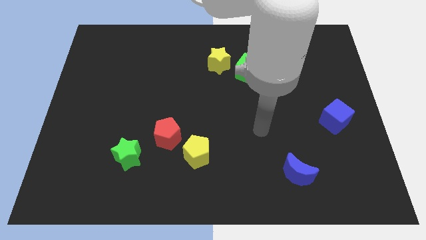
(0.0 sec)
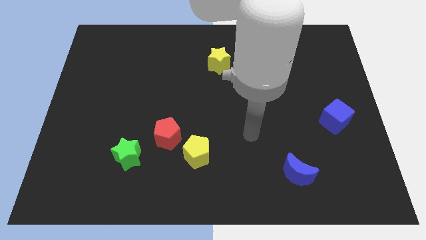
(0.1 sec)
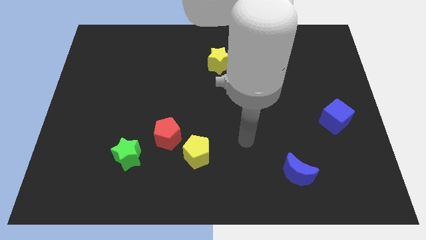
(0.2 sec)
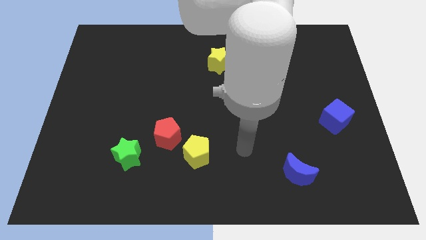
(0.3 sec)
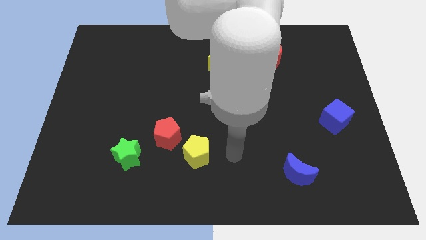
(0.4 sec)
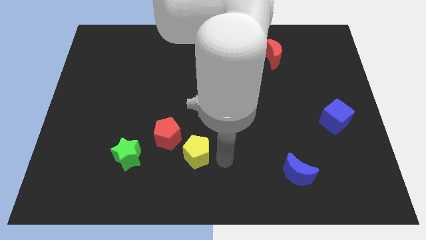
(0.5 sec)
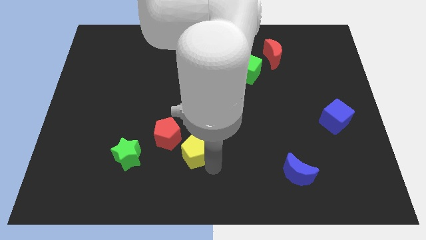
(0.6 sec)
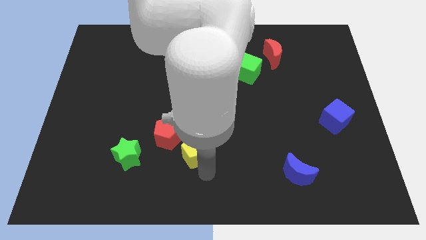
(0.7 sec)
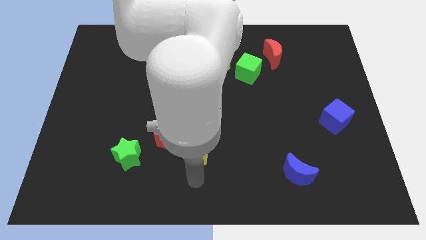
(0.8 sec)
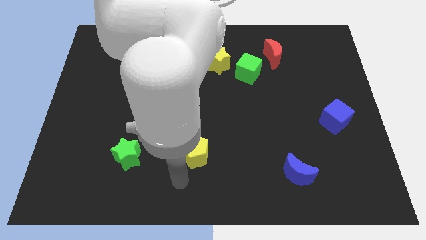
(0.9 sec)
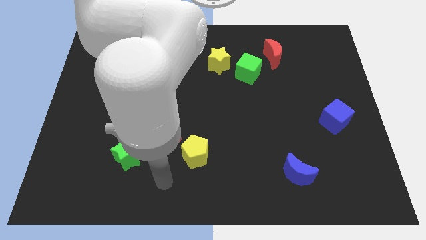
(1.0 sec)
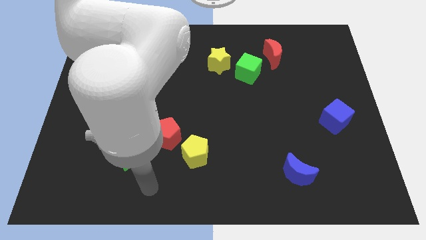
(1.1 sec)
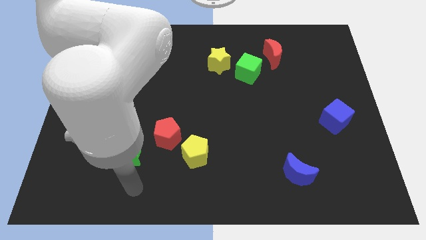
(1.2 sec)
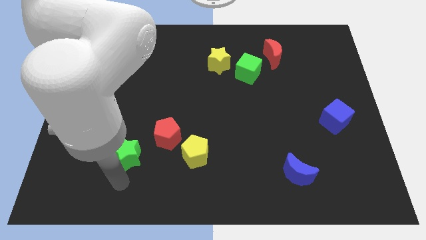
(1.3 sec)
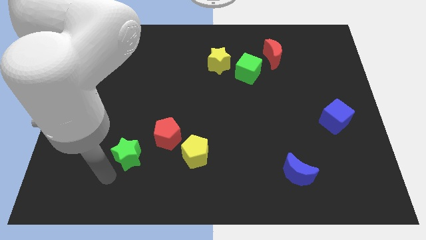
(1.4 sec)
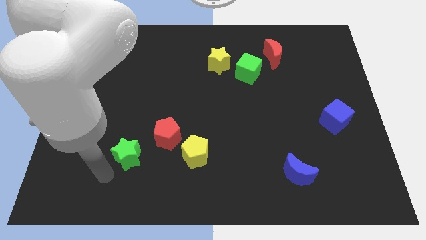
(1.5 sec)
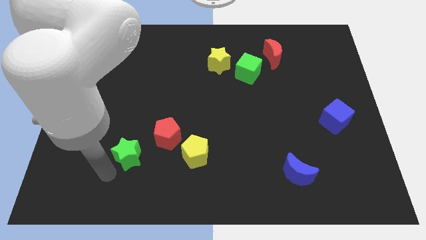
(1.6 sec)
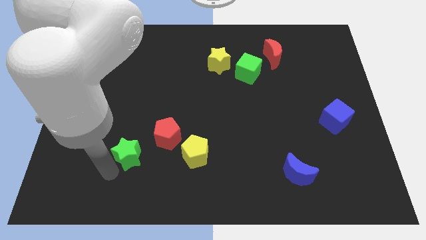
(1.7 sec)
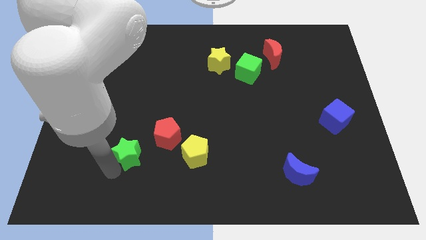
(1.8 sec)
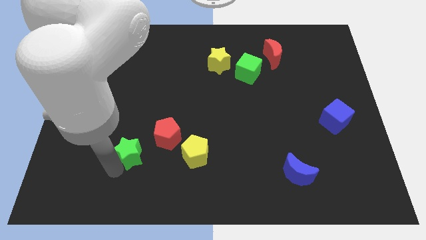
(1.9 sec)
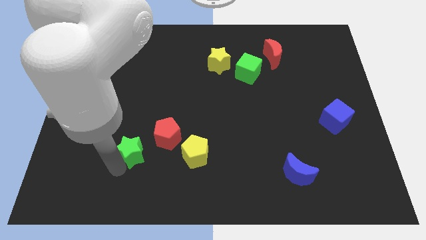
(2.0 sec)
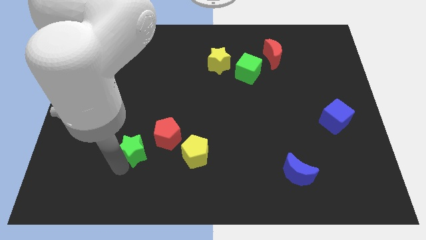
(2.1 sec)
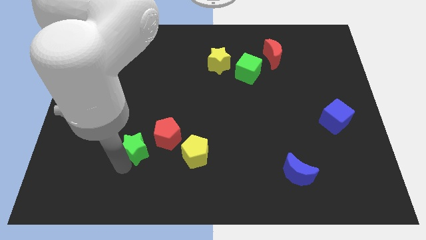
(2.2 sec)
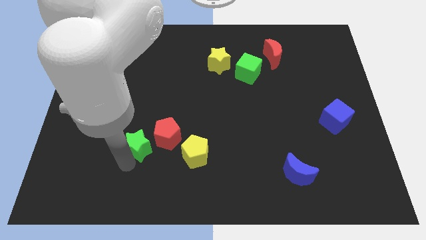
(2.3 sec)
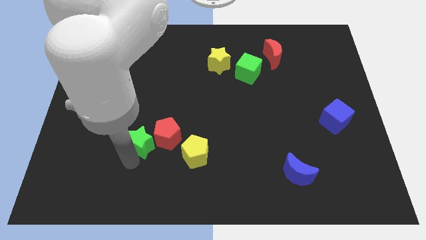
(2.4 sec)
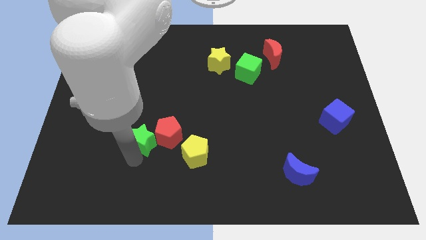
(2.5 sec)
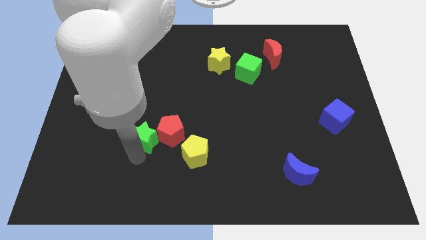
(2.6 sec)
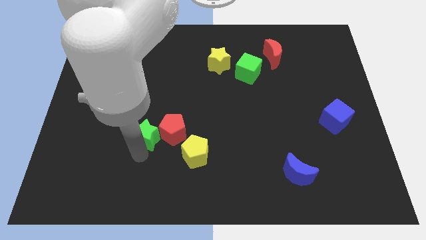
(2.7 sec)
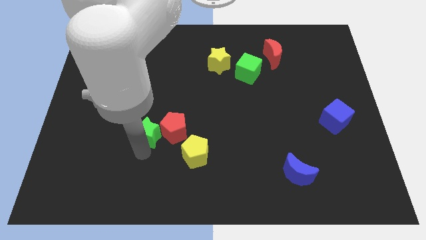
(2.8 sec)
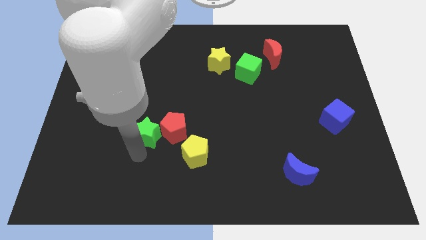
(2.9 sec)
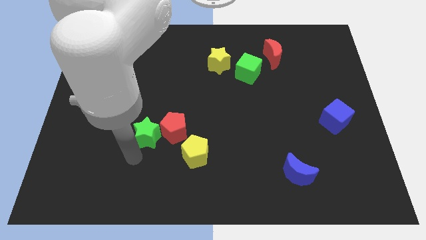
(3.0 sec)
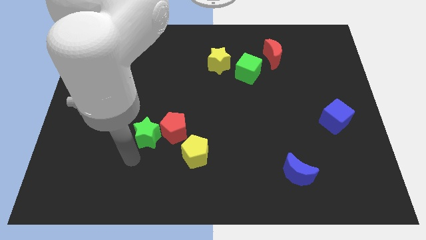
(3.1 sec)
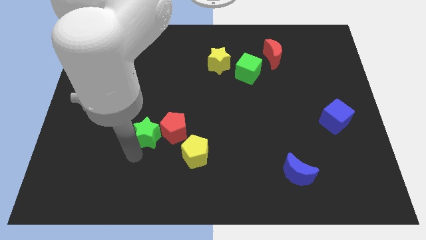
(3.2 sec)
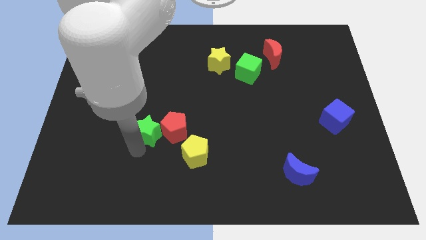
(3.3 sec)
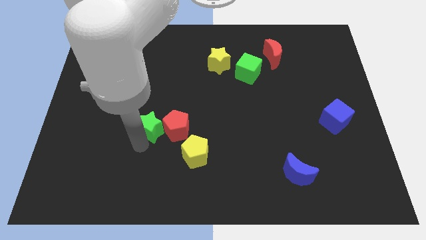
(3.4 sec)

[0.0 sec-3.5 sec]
slide the green star a little bit up and then to the right

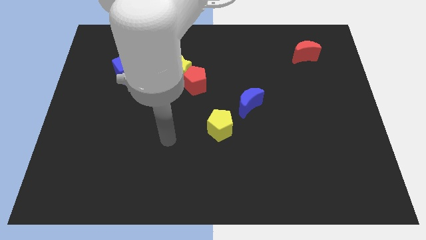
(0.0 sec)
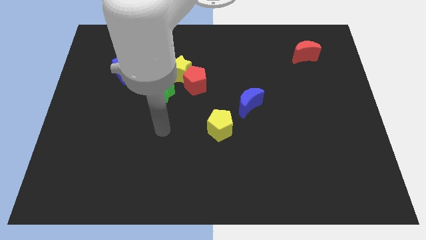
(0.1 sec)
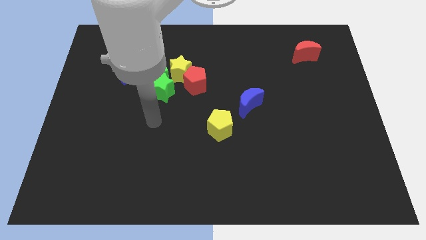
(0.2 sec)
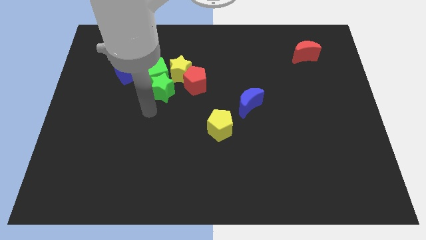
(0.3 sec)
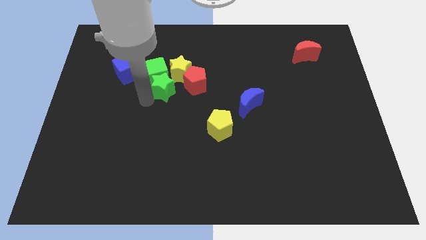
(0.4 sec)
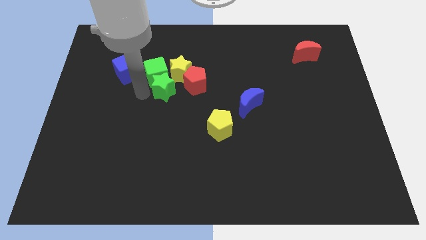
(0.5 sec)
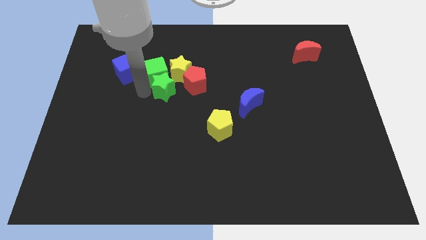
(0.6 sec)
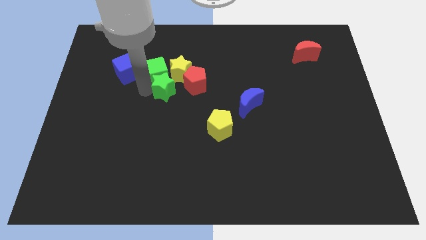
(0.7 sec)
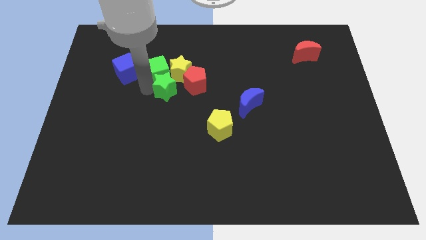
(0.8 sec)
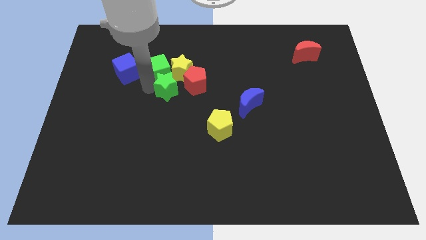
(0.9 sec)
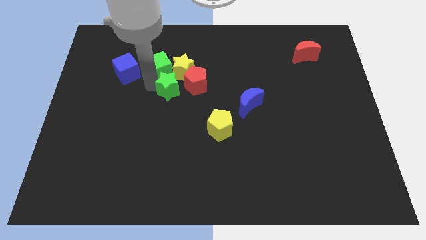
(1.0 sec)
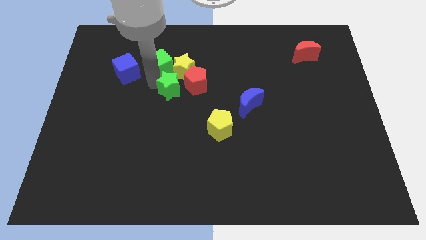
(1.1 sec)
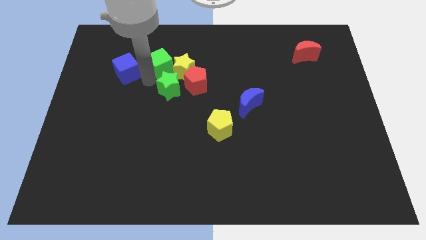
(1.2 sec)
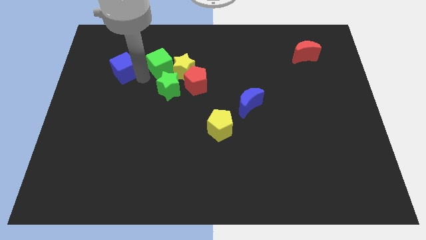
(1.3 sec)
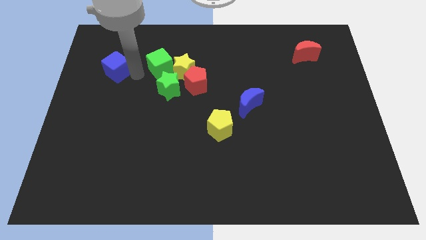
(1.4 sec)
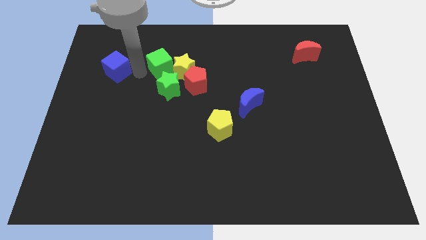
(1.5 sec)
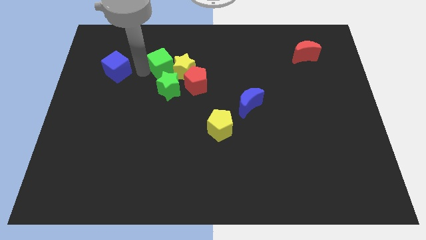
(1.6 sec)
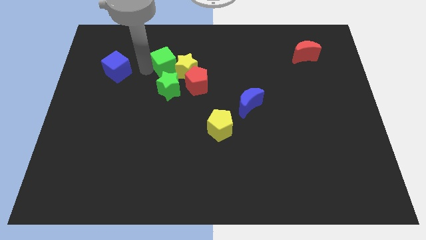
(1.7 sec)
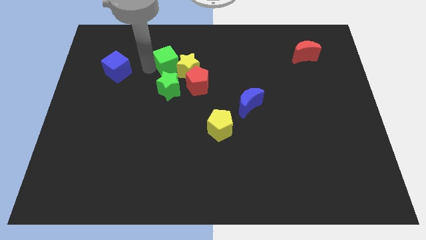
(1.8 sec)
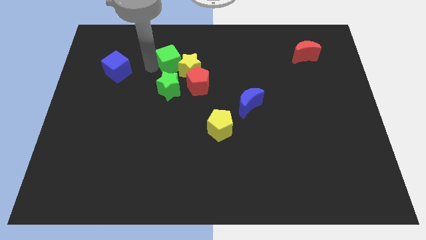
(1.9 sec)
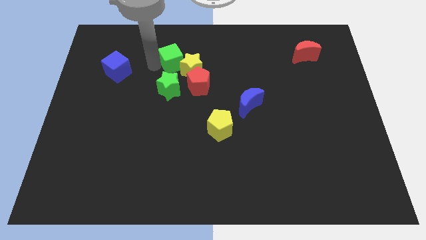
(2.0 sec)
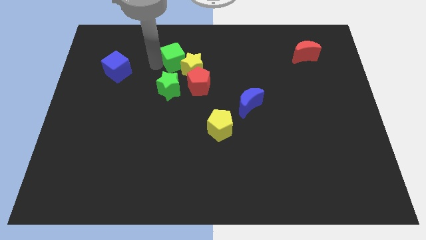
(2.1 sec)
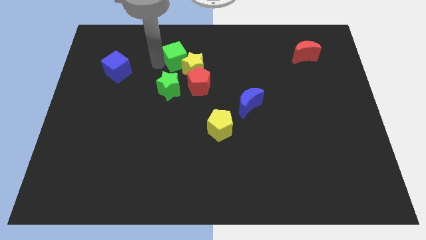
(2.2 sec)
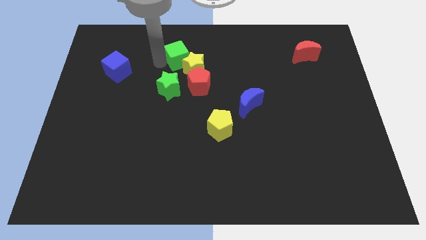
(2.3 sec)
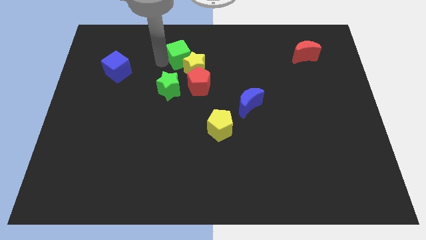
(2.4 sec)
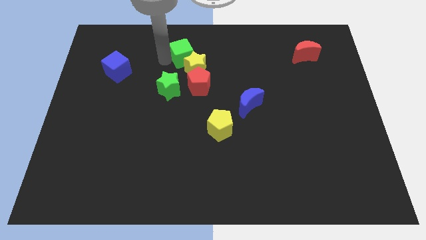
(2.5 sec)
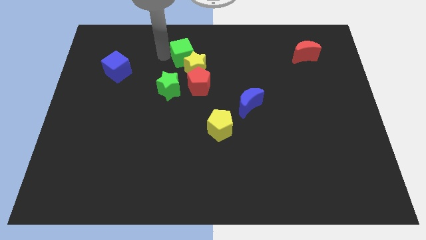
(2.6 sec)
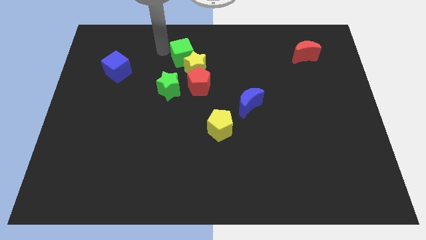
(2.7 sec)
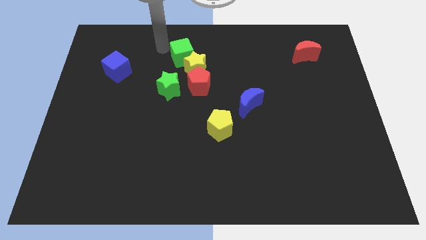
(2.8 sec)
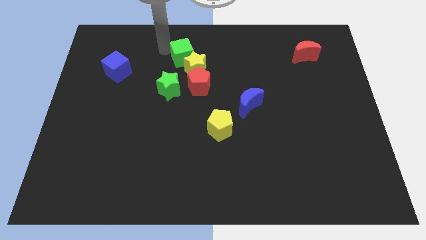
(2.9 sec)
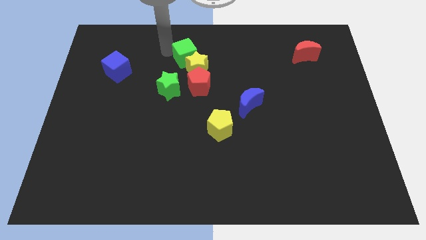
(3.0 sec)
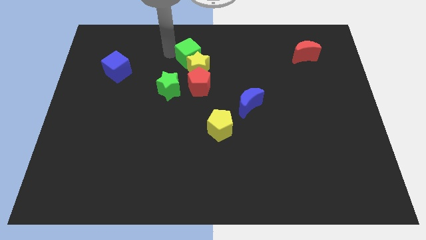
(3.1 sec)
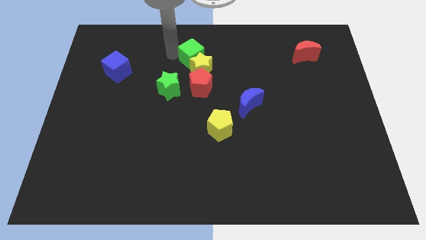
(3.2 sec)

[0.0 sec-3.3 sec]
push the green cube to the right a bit

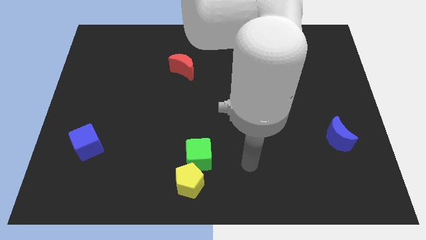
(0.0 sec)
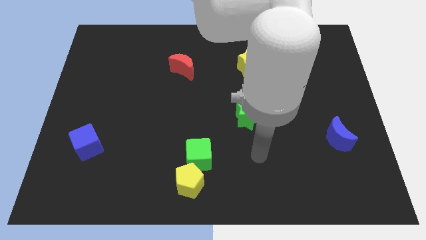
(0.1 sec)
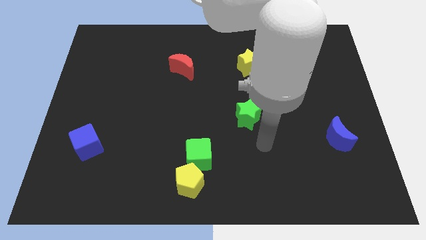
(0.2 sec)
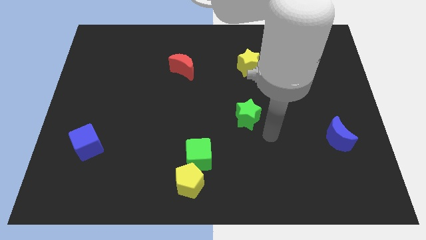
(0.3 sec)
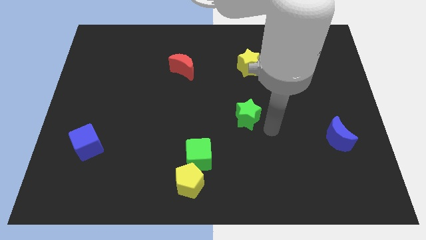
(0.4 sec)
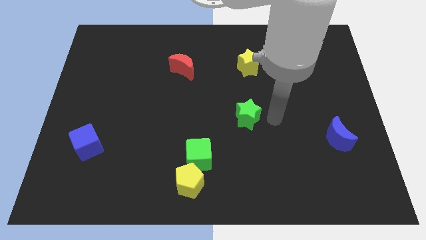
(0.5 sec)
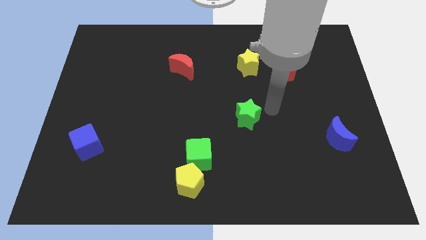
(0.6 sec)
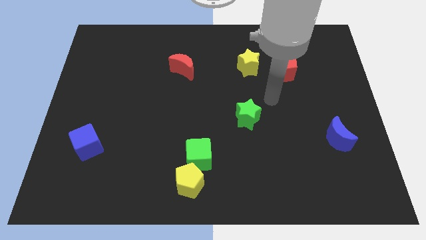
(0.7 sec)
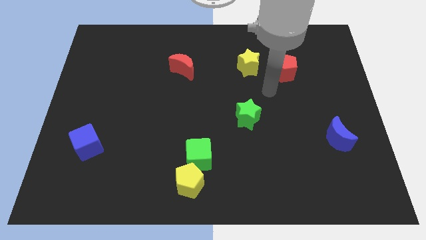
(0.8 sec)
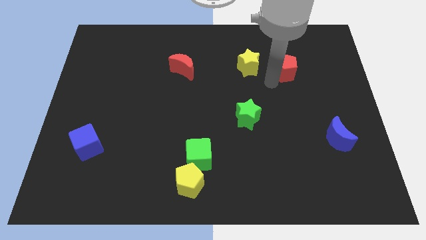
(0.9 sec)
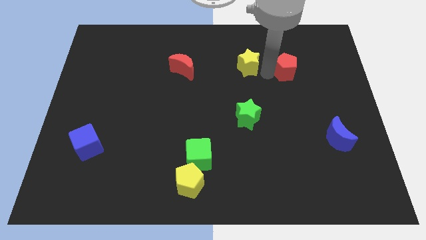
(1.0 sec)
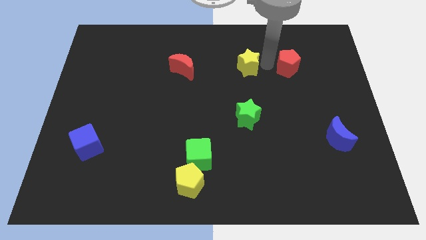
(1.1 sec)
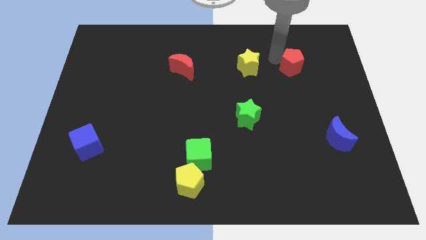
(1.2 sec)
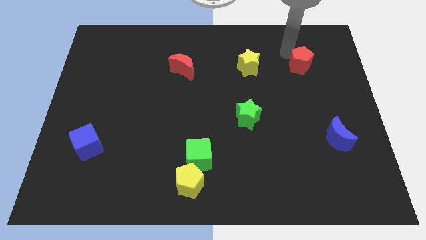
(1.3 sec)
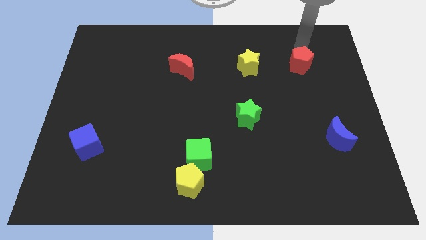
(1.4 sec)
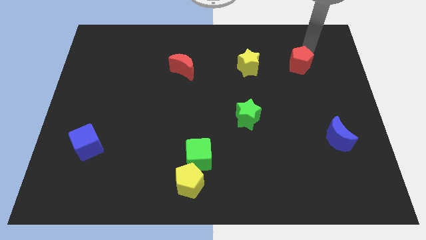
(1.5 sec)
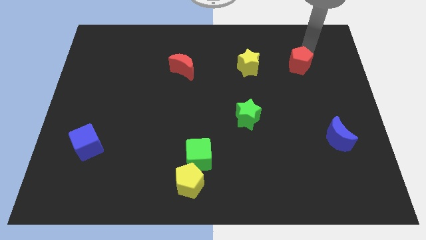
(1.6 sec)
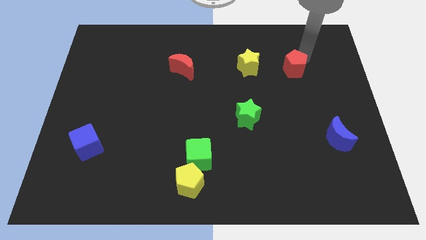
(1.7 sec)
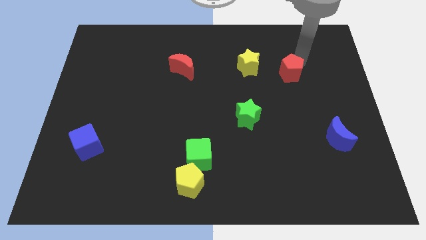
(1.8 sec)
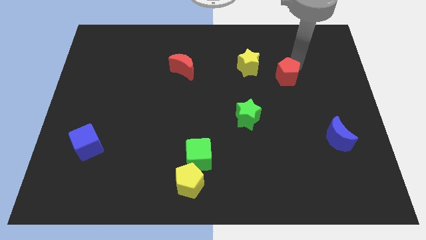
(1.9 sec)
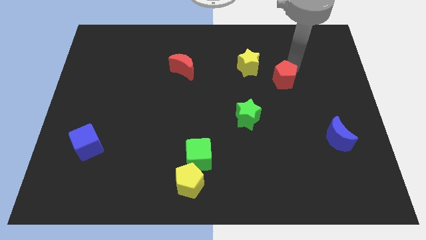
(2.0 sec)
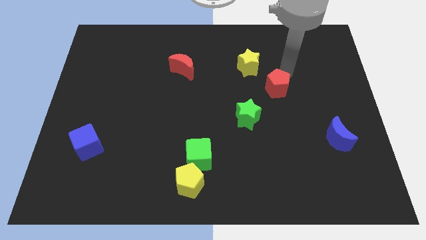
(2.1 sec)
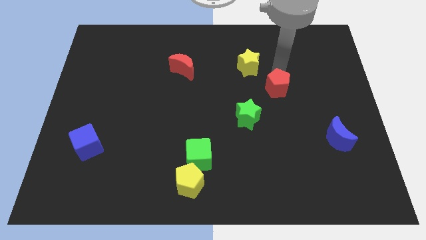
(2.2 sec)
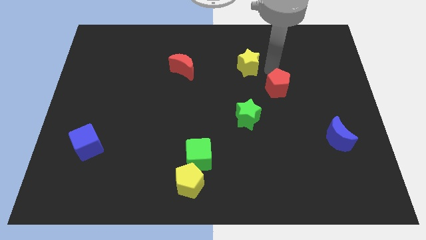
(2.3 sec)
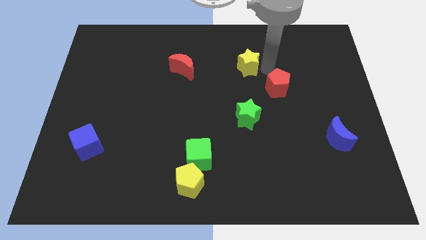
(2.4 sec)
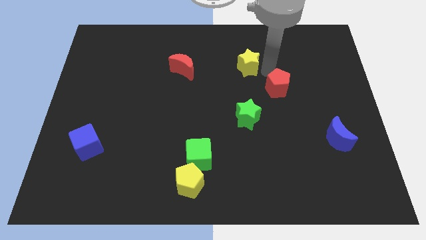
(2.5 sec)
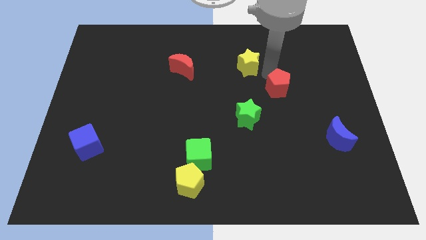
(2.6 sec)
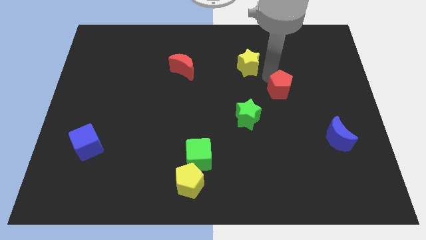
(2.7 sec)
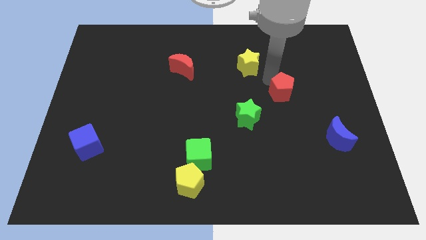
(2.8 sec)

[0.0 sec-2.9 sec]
push the red pentagon slightly down
